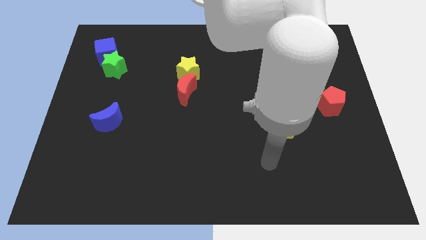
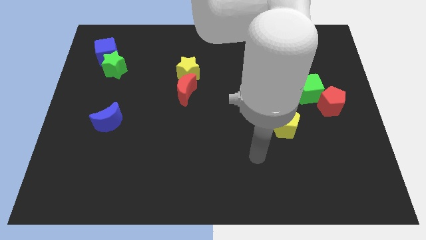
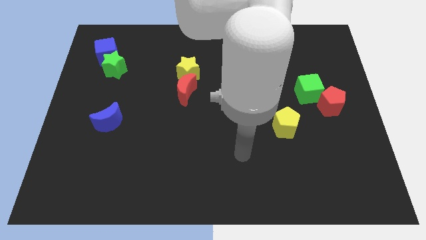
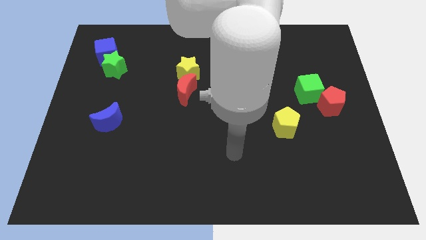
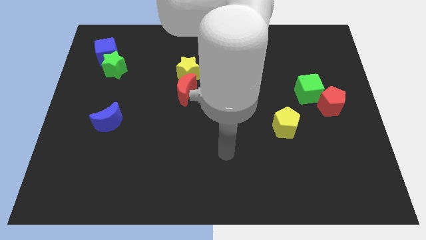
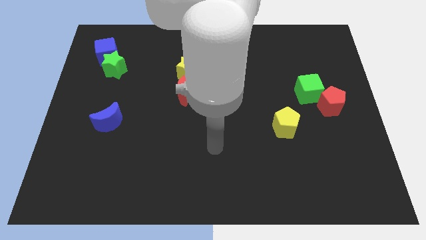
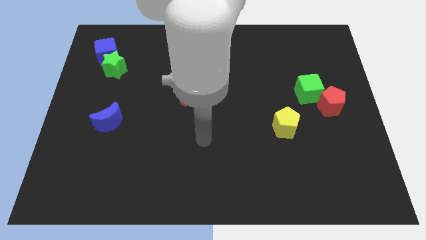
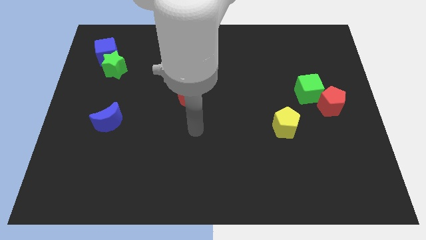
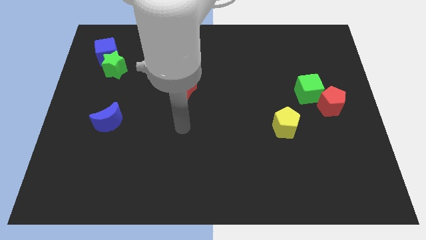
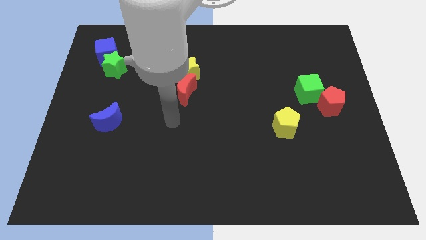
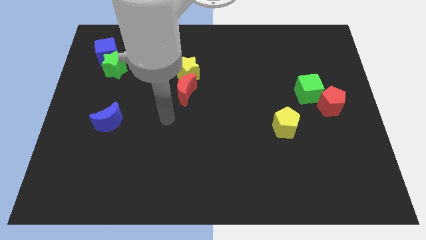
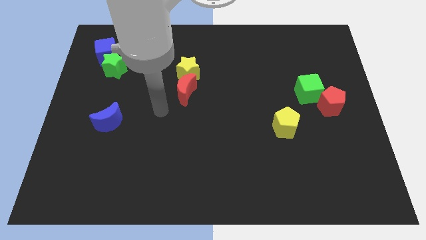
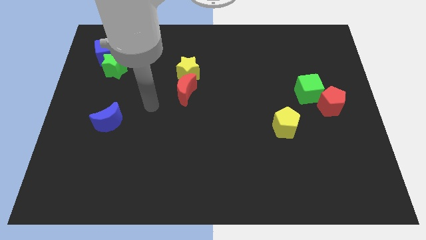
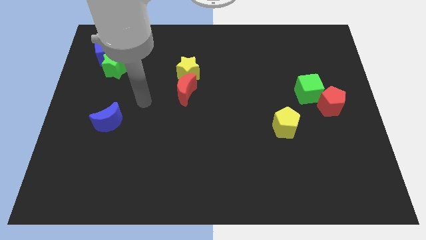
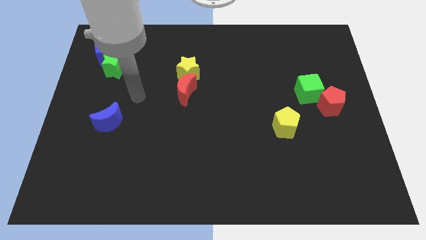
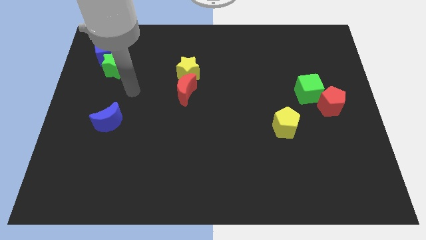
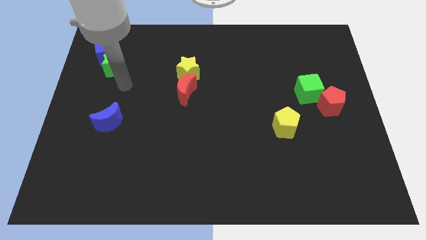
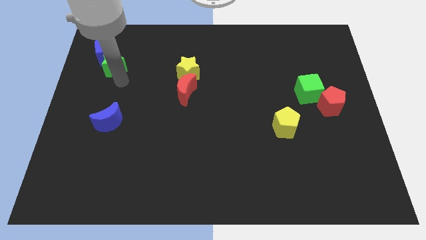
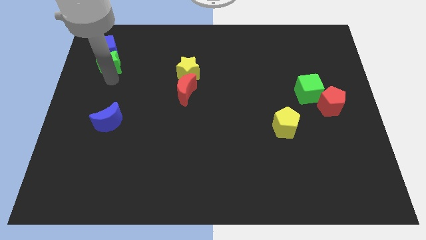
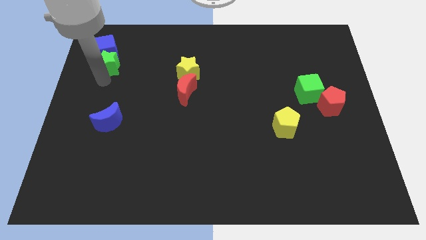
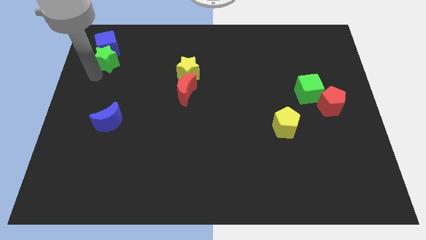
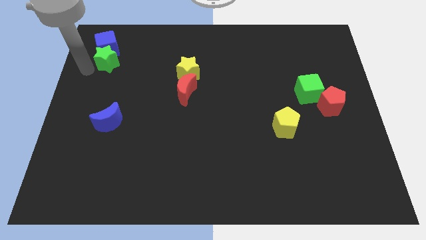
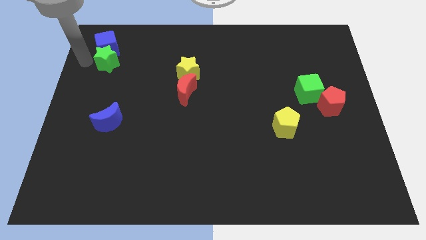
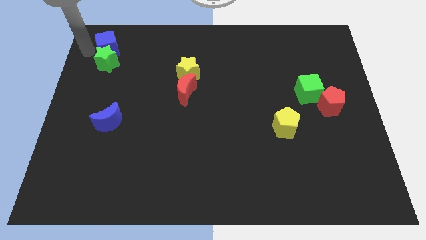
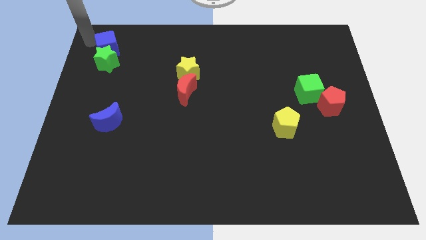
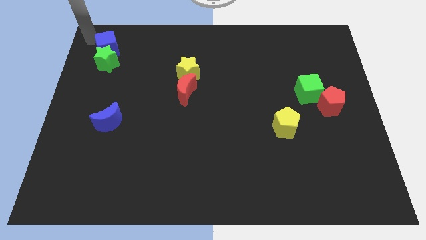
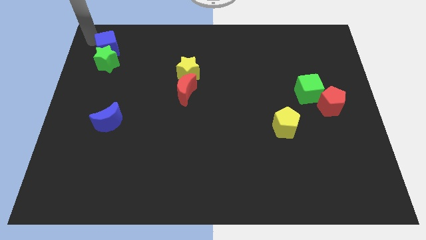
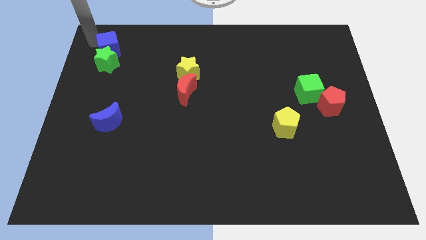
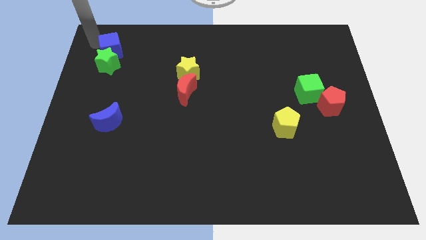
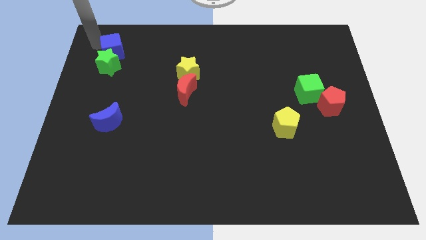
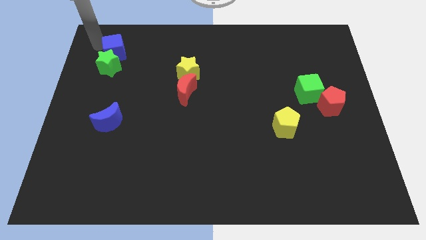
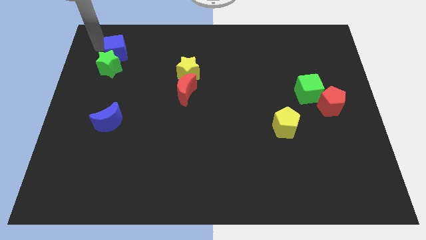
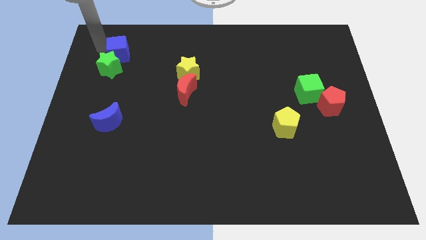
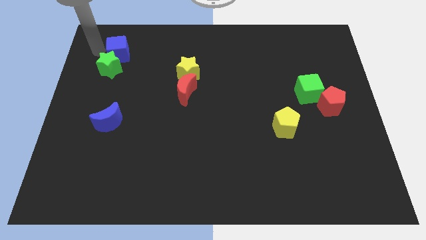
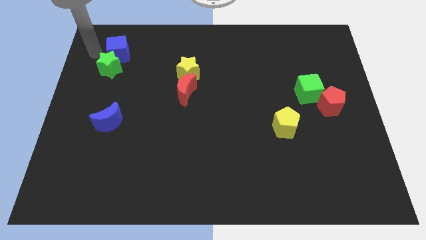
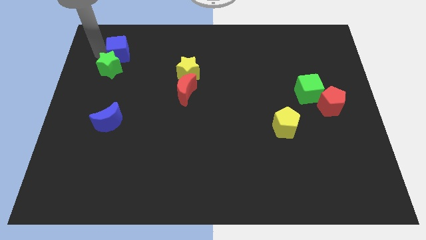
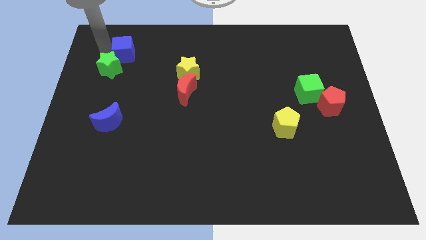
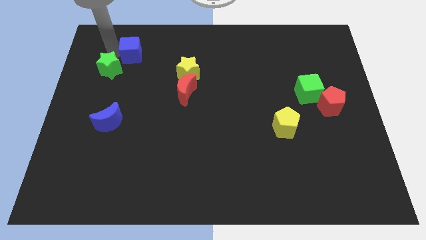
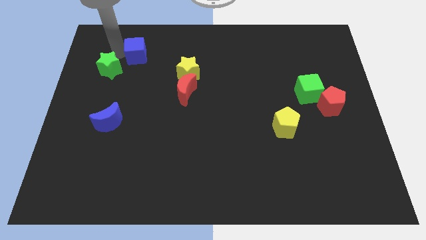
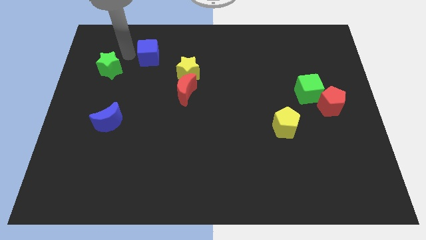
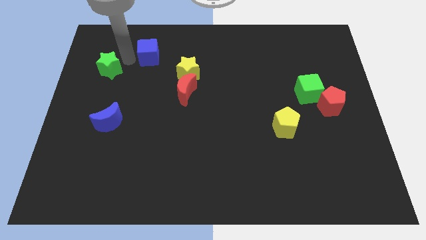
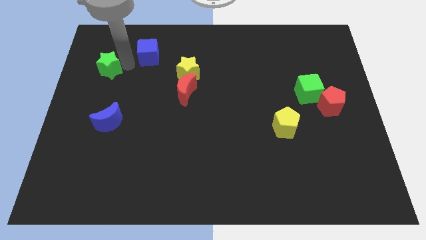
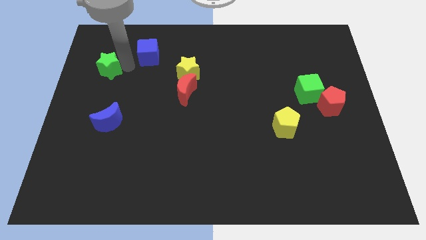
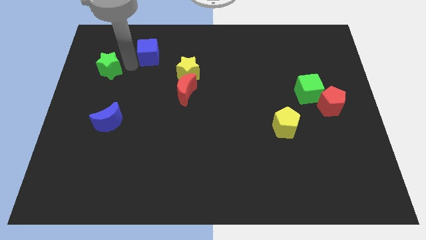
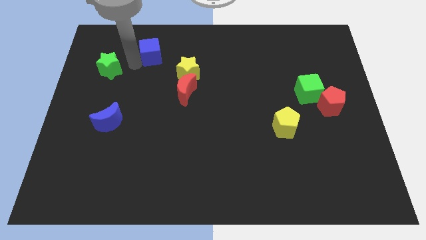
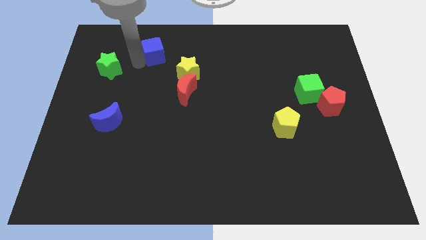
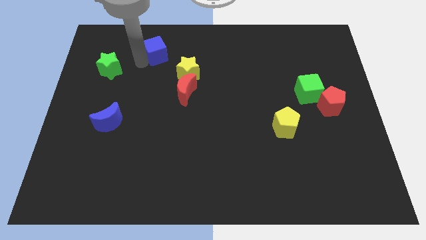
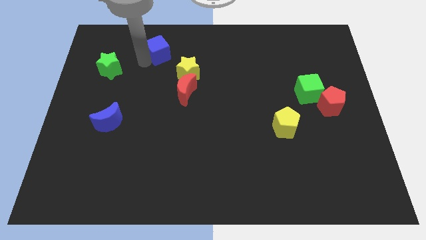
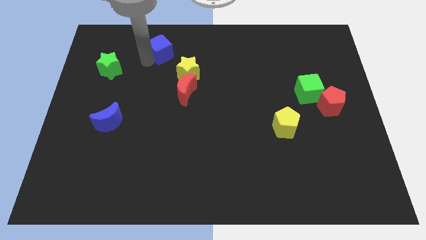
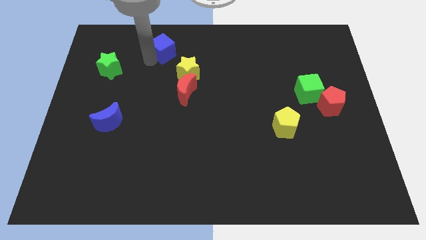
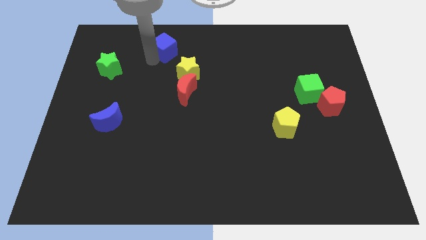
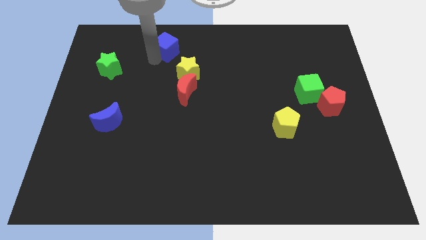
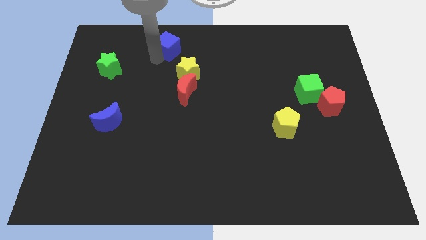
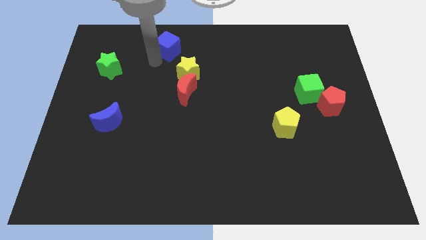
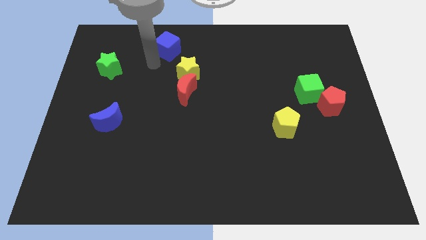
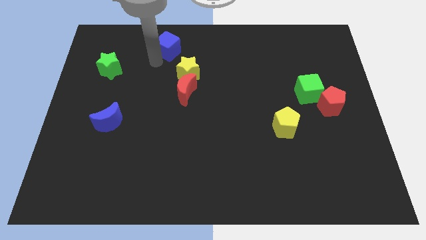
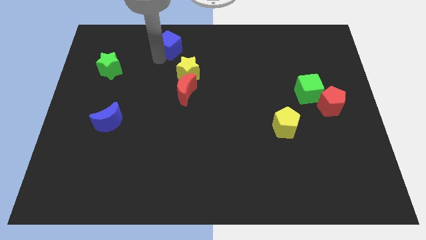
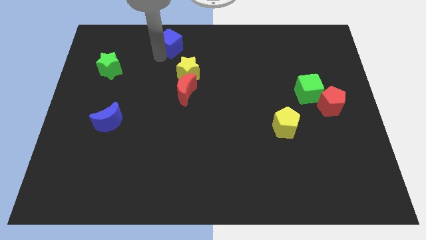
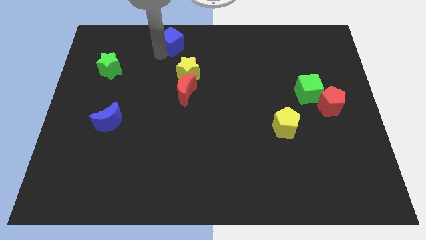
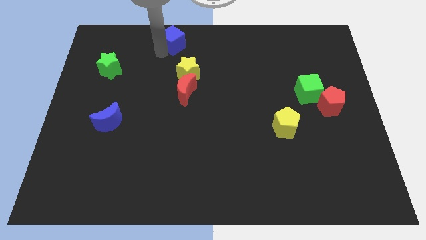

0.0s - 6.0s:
move the blue cube to the towards your base

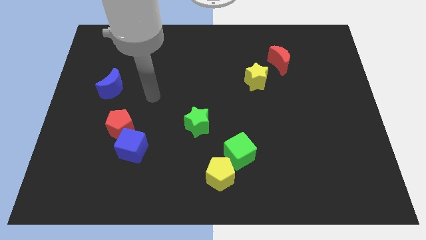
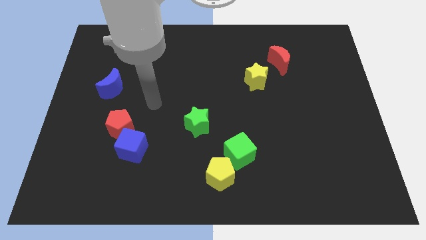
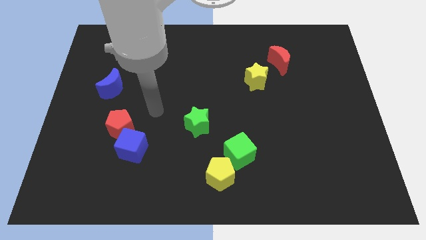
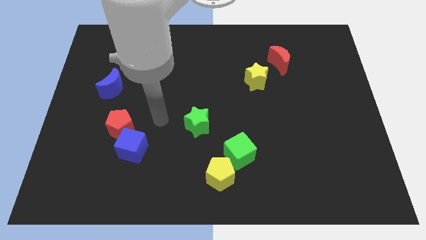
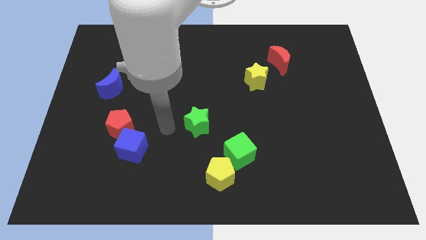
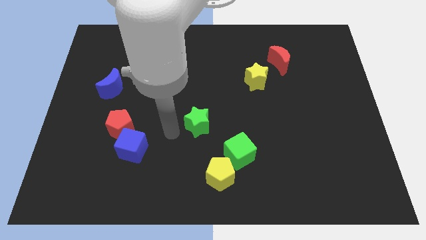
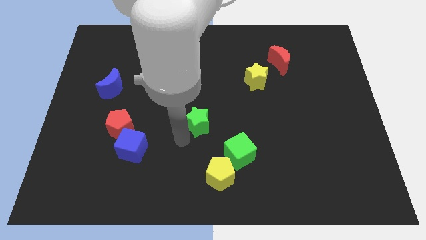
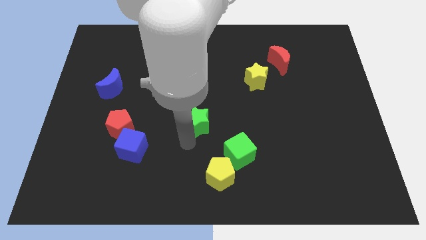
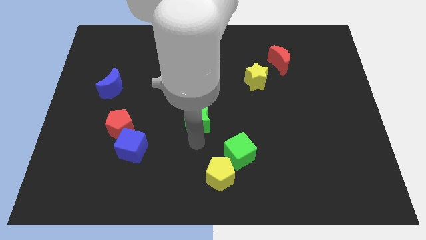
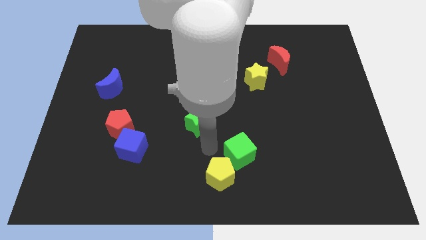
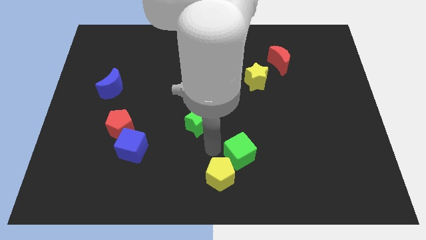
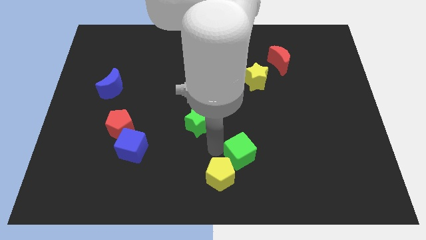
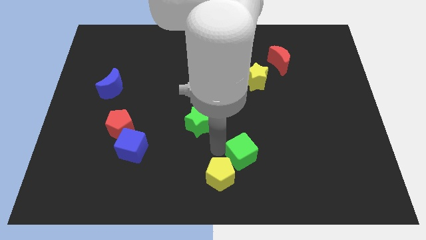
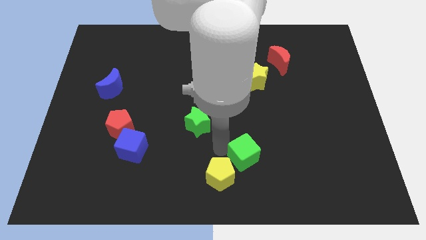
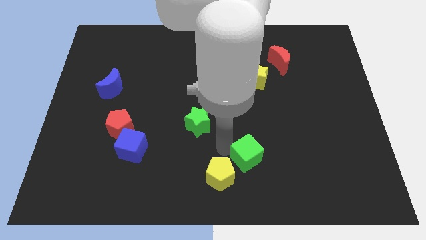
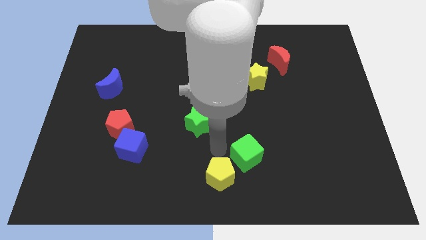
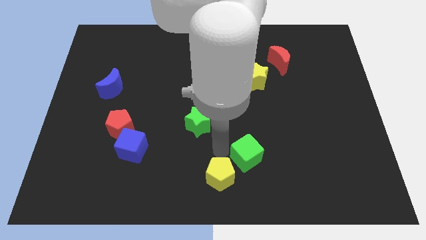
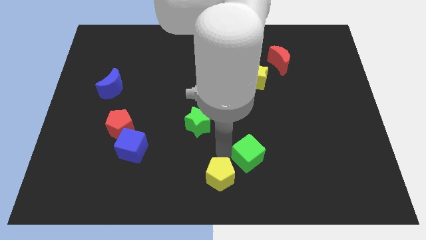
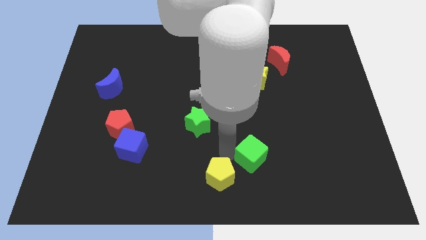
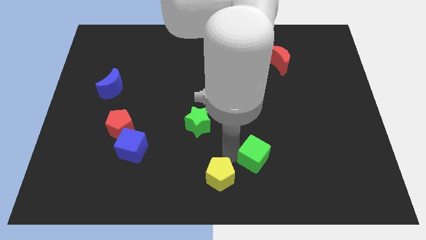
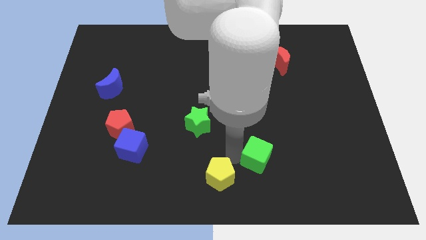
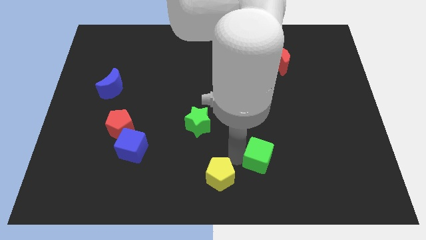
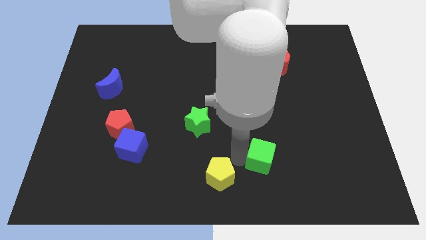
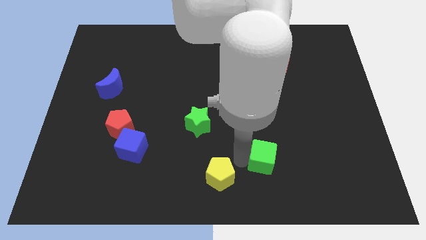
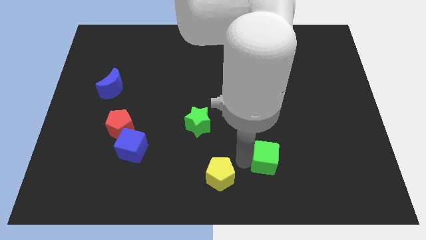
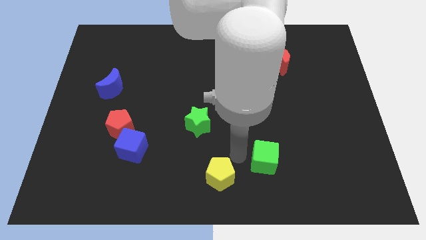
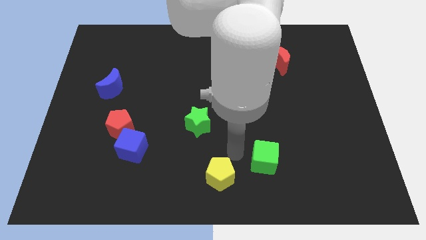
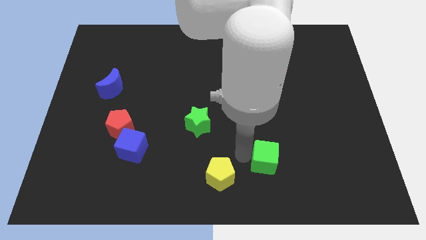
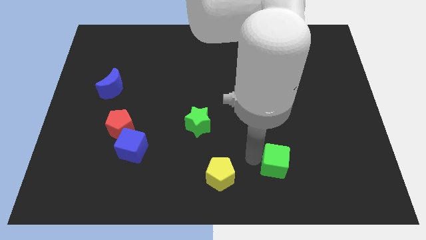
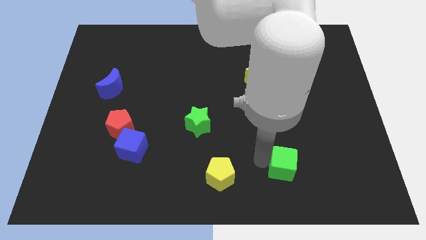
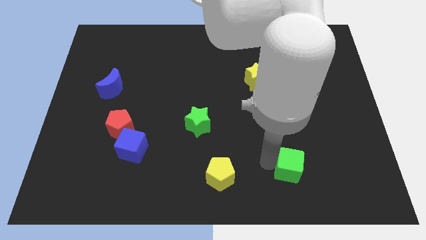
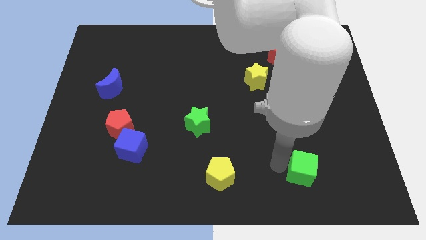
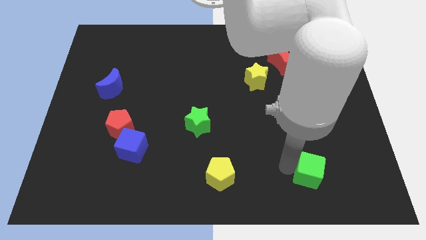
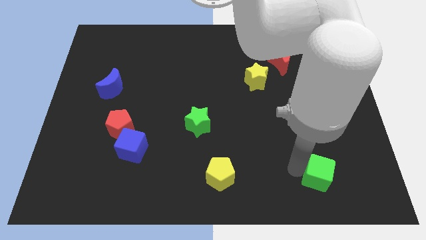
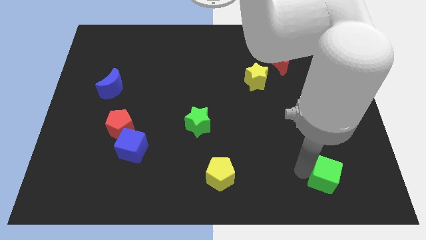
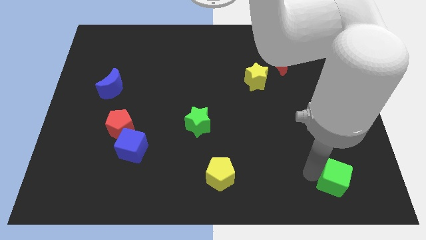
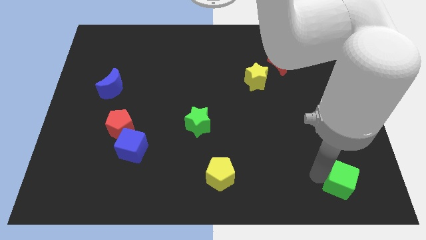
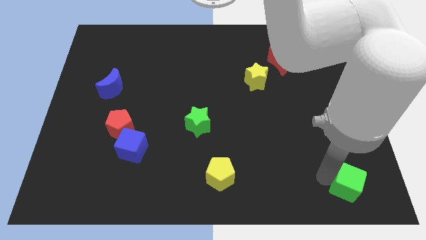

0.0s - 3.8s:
push the green cube to the lower right corner
